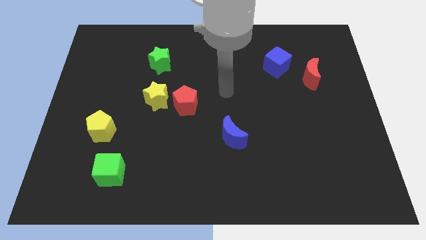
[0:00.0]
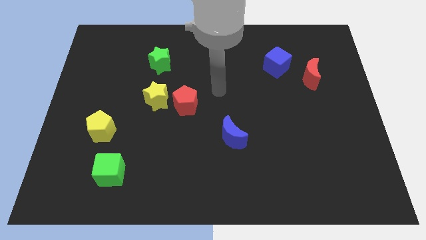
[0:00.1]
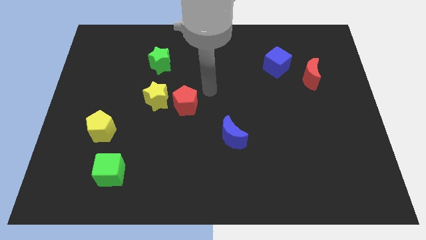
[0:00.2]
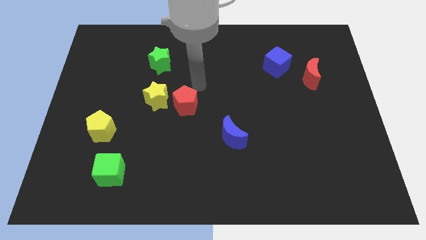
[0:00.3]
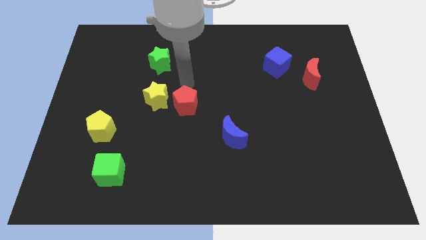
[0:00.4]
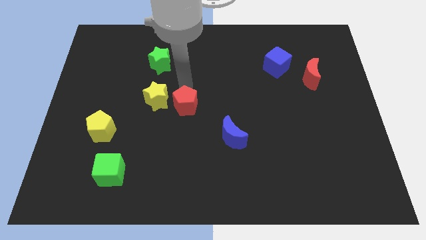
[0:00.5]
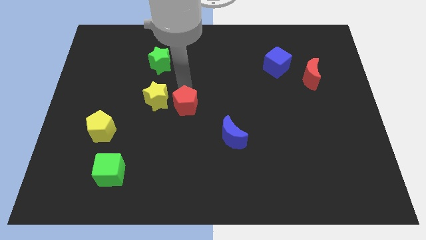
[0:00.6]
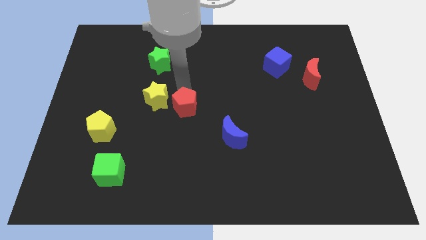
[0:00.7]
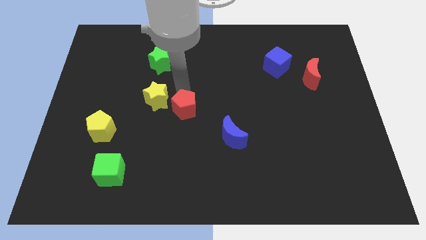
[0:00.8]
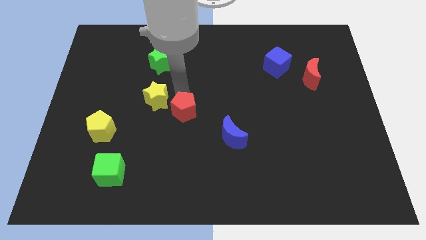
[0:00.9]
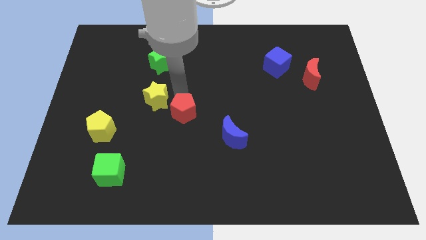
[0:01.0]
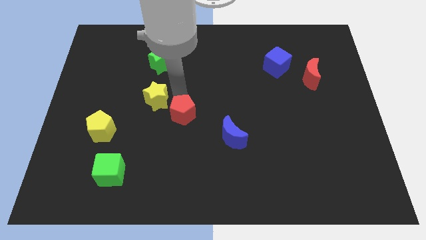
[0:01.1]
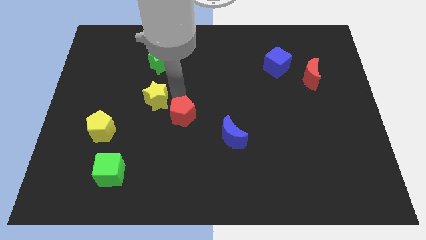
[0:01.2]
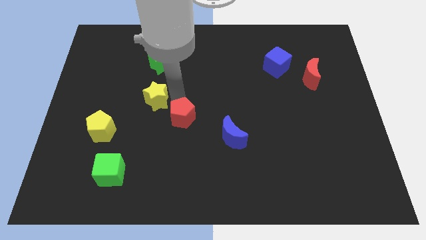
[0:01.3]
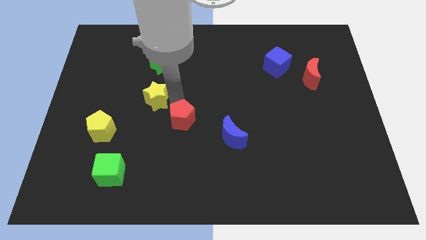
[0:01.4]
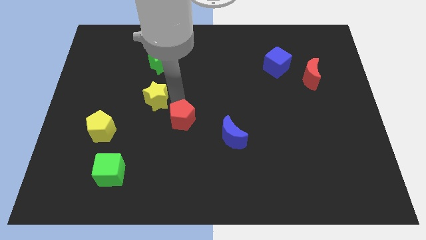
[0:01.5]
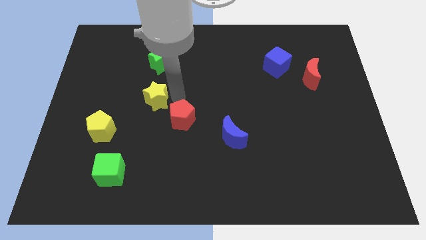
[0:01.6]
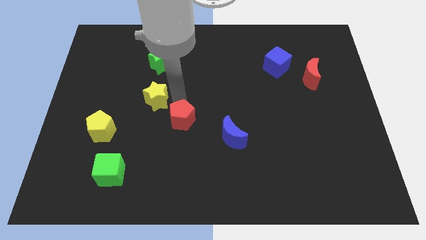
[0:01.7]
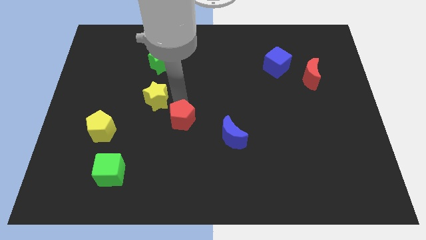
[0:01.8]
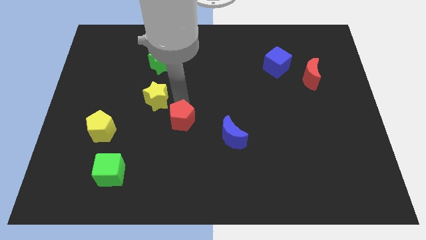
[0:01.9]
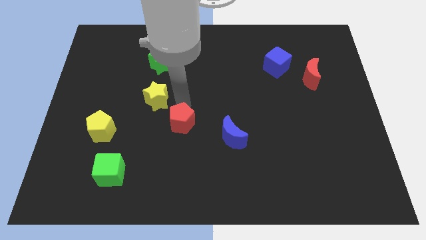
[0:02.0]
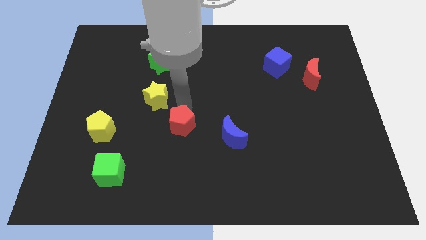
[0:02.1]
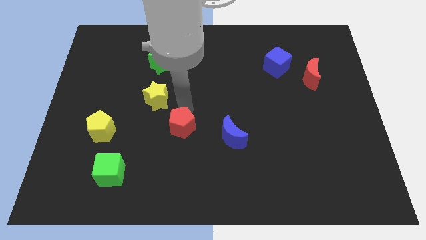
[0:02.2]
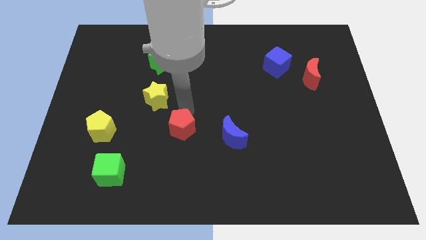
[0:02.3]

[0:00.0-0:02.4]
push the red pentagon downwards somewhat

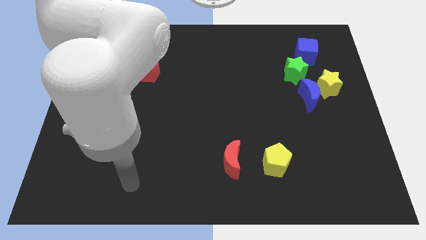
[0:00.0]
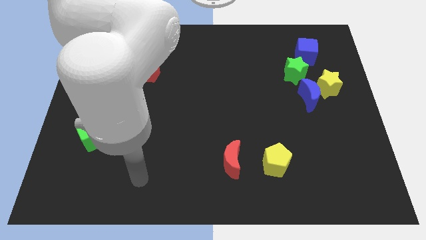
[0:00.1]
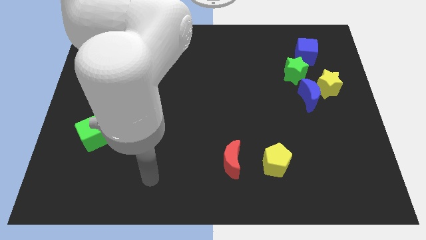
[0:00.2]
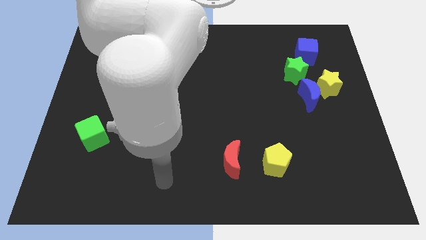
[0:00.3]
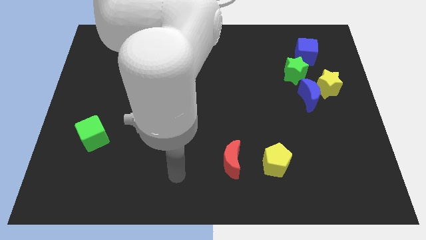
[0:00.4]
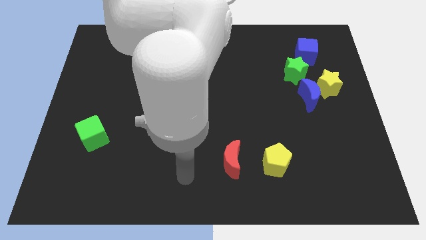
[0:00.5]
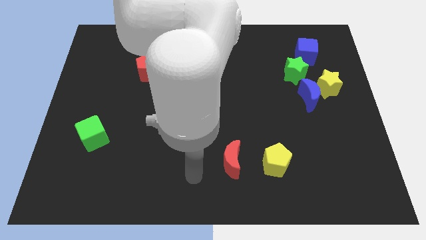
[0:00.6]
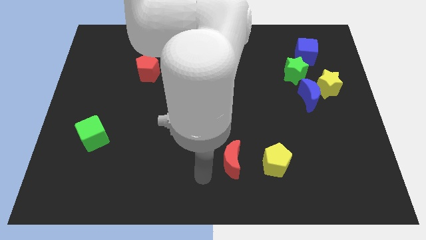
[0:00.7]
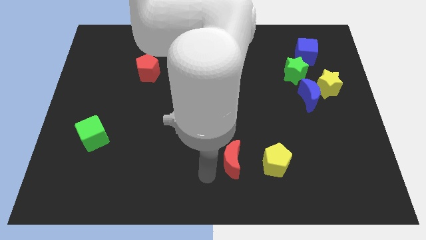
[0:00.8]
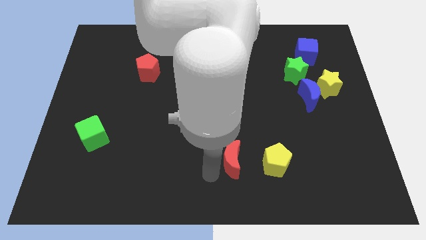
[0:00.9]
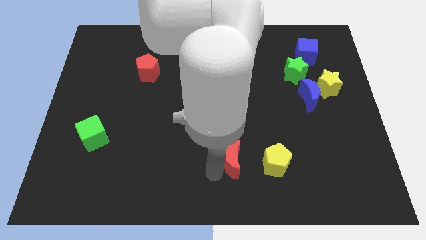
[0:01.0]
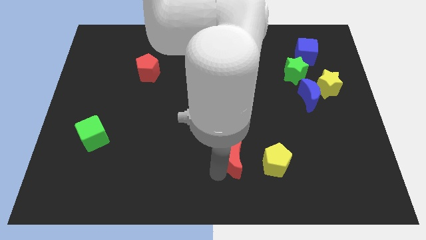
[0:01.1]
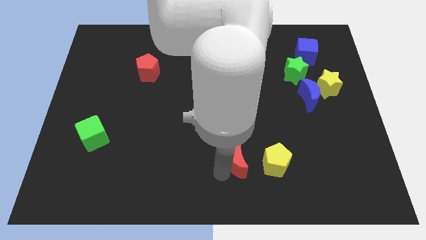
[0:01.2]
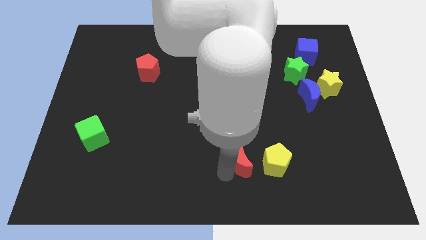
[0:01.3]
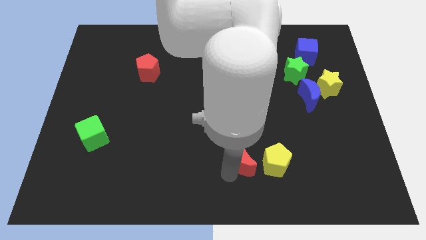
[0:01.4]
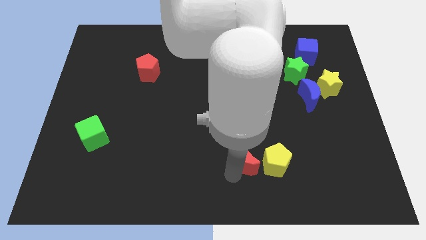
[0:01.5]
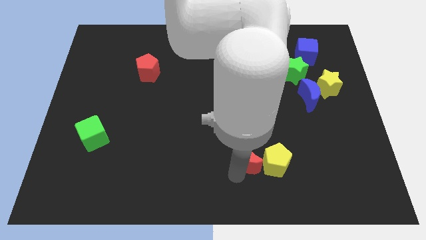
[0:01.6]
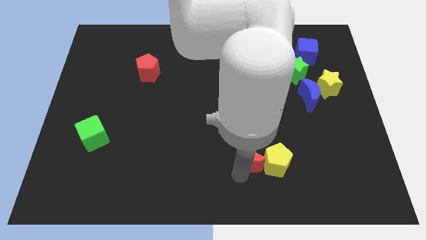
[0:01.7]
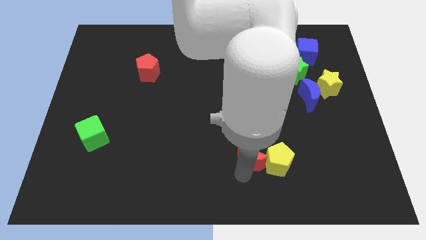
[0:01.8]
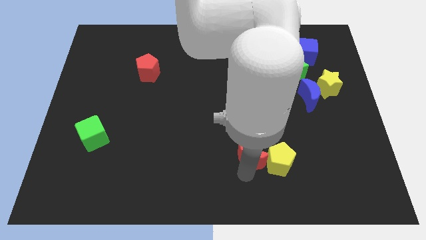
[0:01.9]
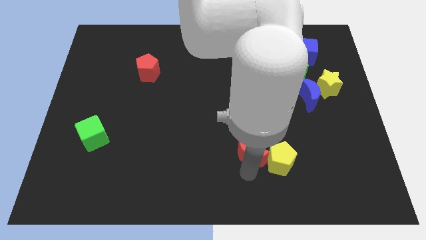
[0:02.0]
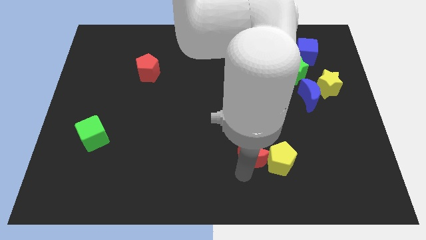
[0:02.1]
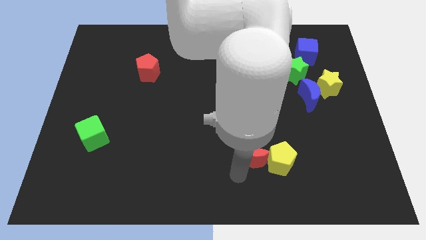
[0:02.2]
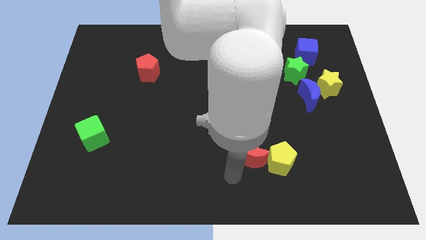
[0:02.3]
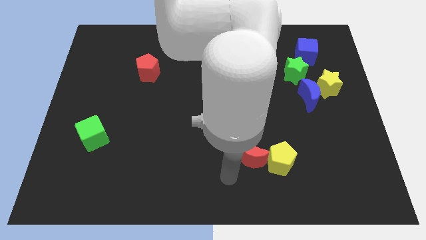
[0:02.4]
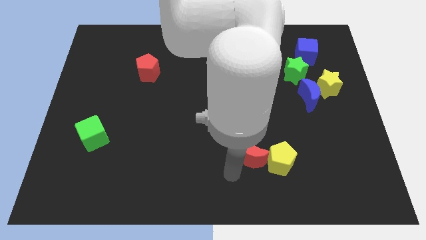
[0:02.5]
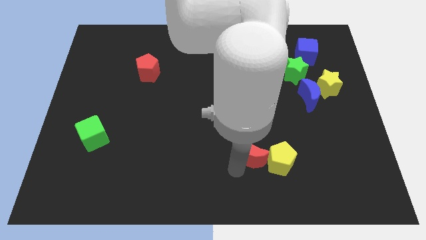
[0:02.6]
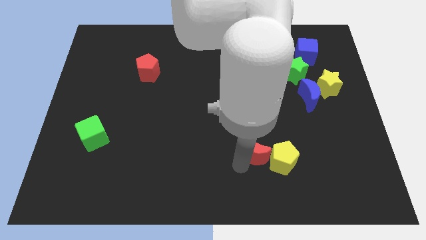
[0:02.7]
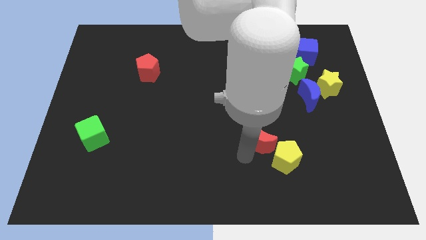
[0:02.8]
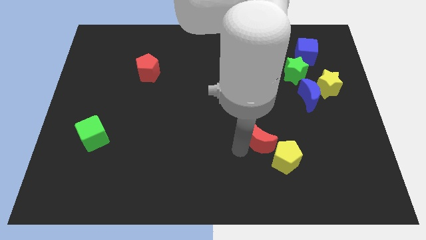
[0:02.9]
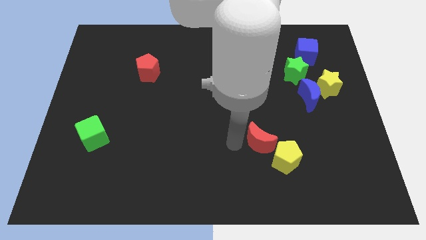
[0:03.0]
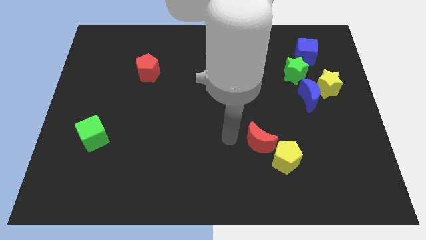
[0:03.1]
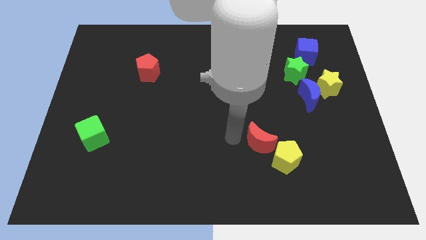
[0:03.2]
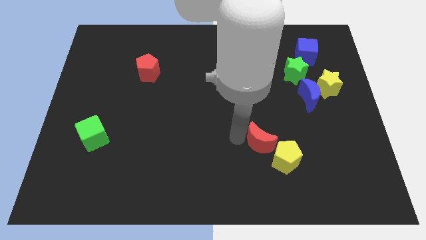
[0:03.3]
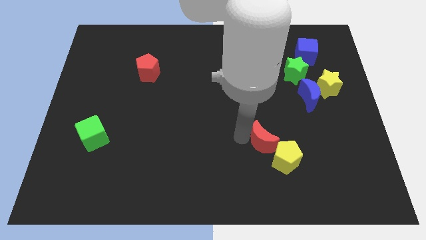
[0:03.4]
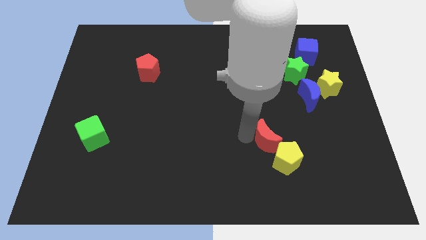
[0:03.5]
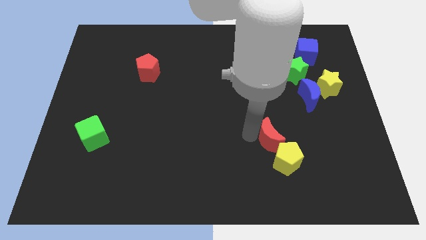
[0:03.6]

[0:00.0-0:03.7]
move the red moon a bit to the right

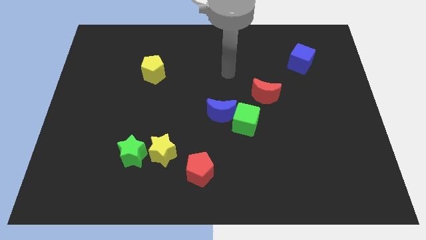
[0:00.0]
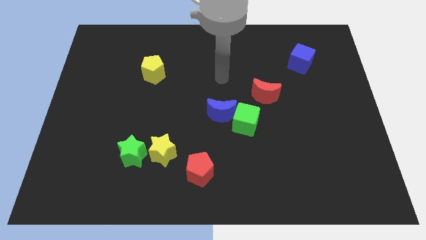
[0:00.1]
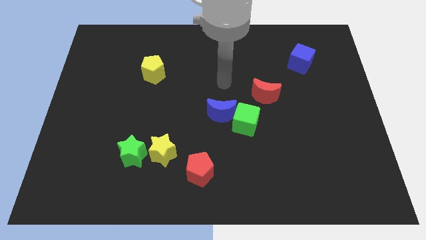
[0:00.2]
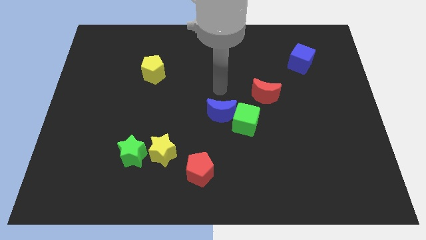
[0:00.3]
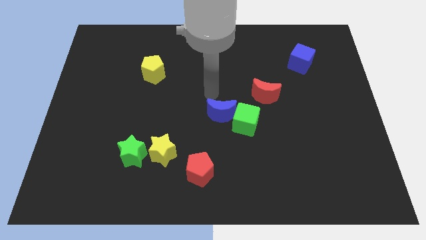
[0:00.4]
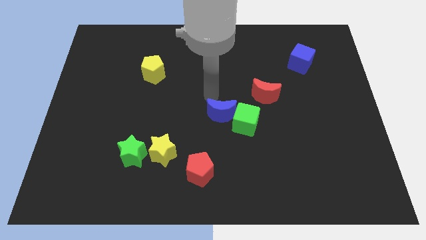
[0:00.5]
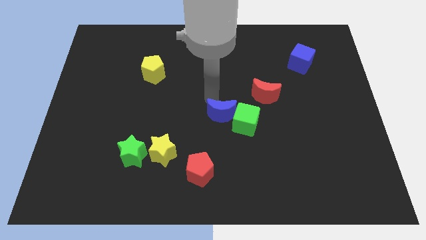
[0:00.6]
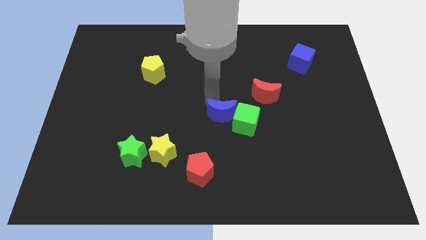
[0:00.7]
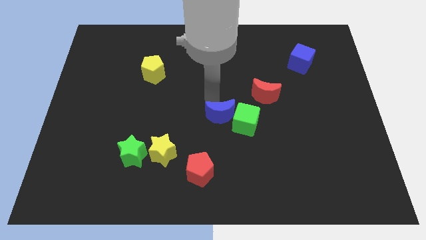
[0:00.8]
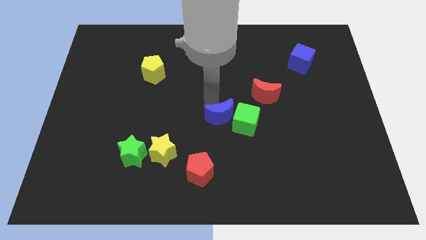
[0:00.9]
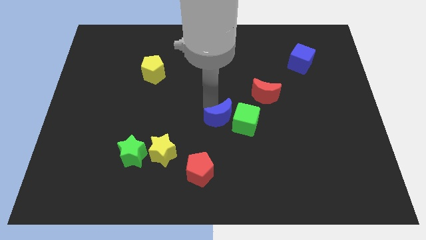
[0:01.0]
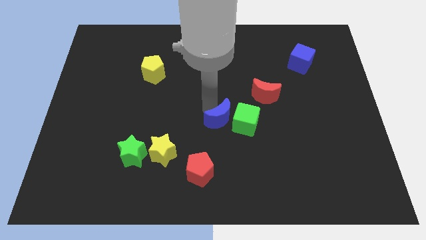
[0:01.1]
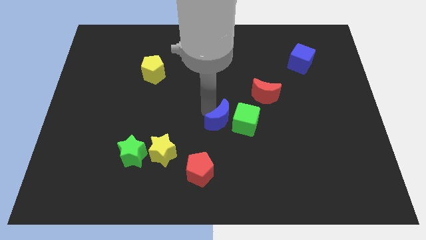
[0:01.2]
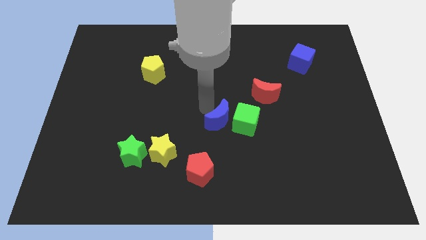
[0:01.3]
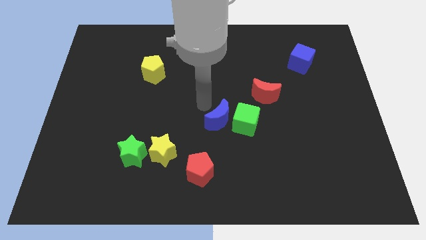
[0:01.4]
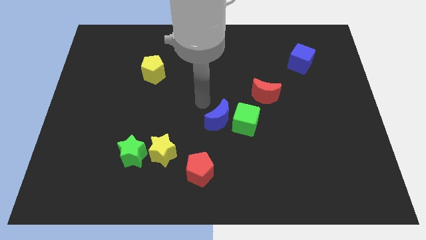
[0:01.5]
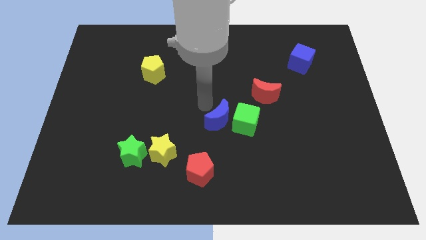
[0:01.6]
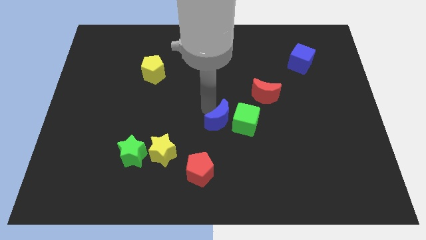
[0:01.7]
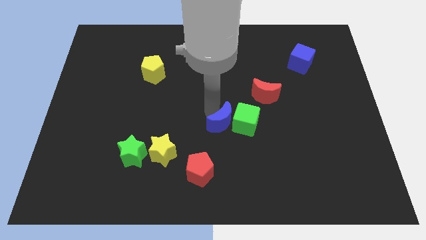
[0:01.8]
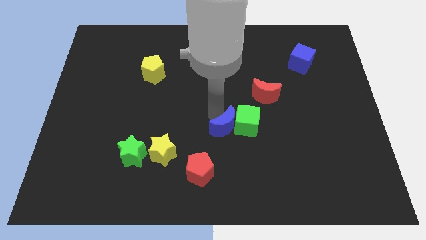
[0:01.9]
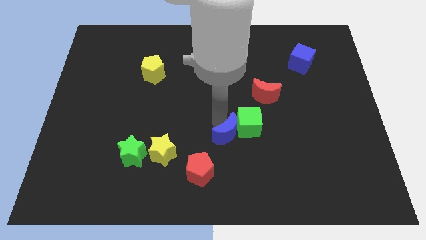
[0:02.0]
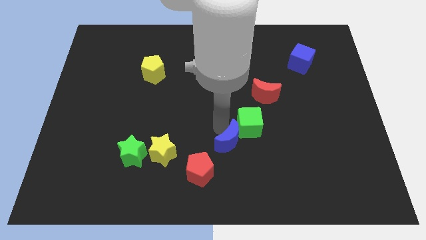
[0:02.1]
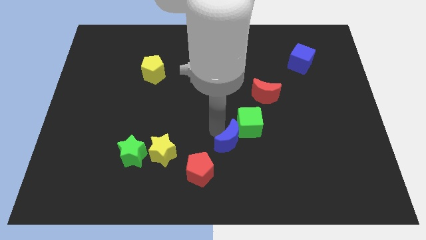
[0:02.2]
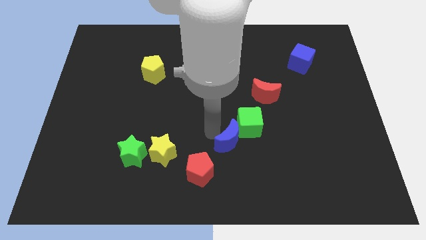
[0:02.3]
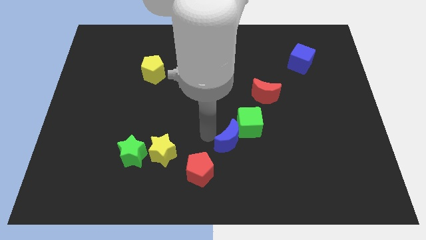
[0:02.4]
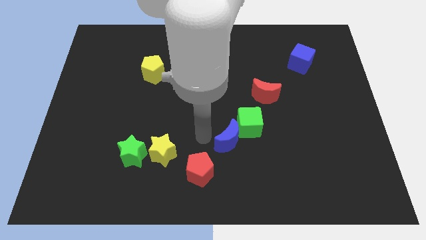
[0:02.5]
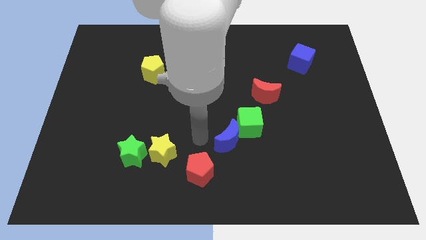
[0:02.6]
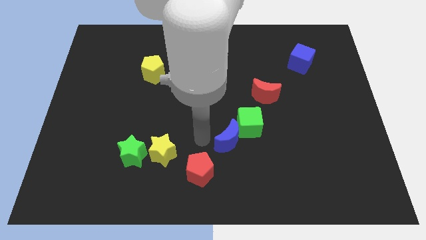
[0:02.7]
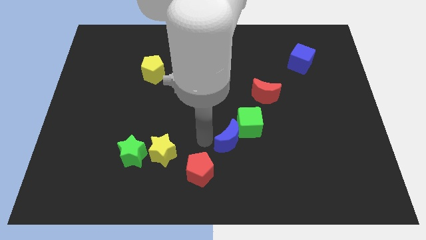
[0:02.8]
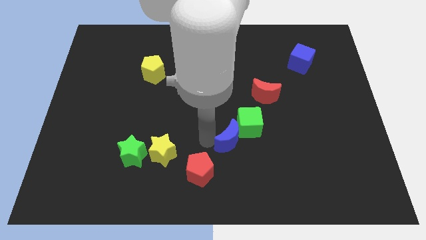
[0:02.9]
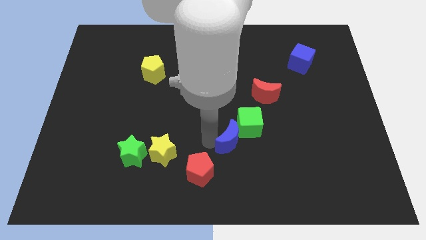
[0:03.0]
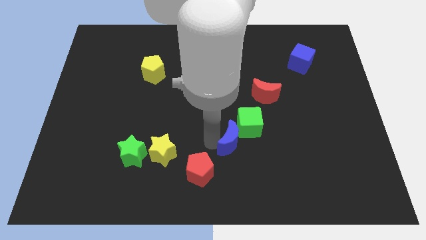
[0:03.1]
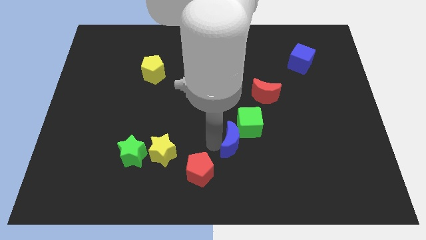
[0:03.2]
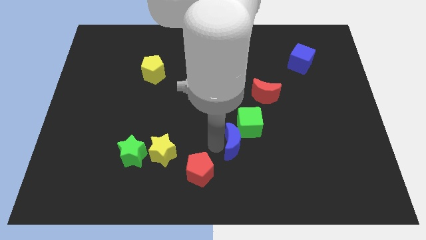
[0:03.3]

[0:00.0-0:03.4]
slightly push the blue moon downwards and right diagonally
